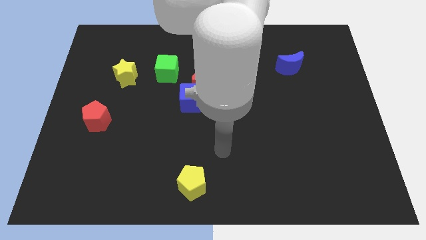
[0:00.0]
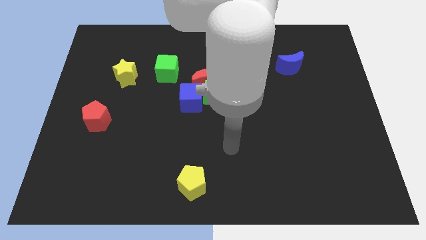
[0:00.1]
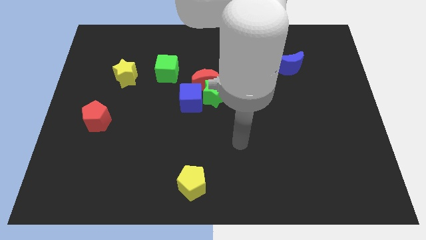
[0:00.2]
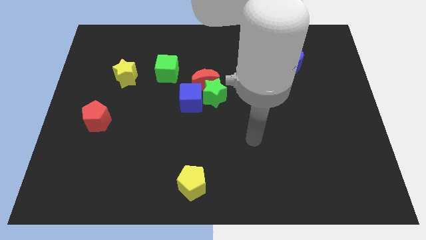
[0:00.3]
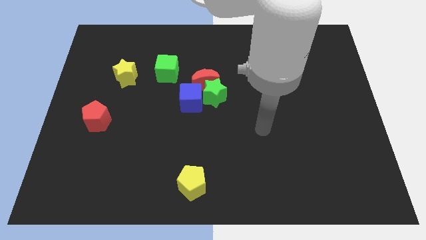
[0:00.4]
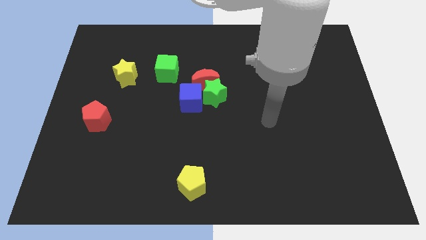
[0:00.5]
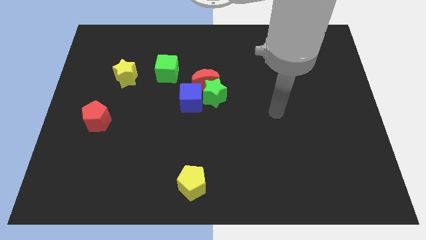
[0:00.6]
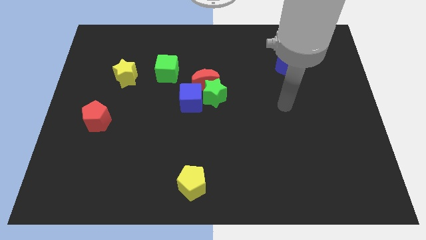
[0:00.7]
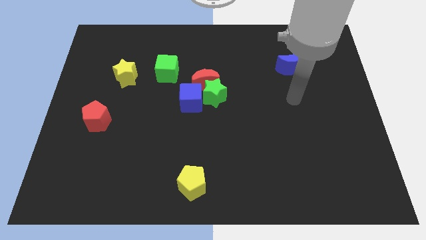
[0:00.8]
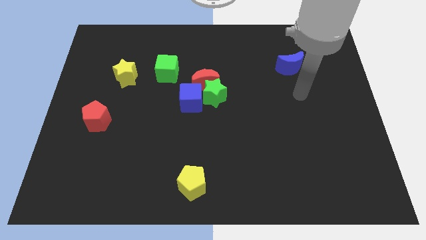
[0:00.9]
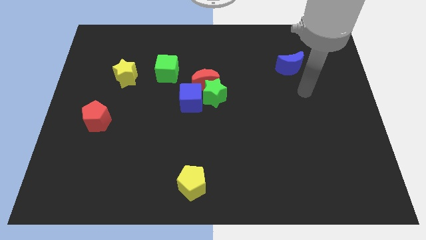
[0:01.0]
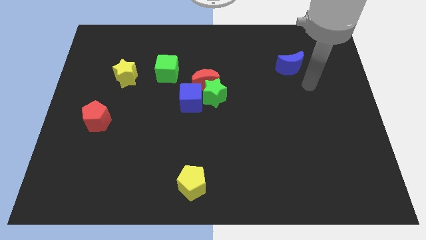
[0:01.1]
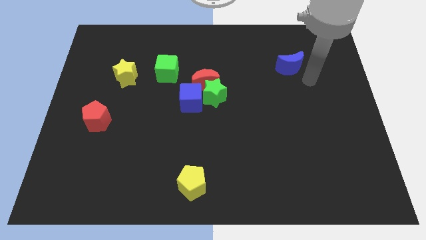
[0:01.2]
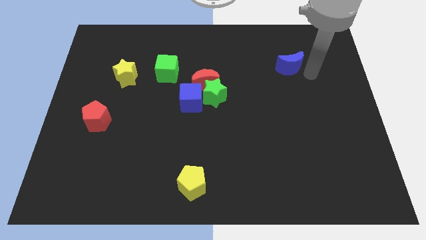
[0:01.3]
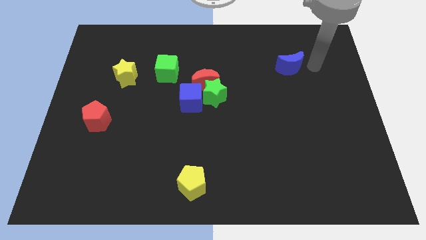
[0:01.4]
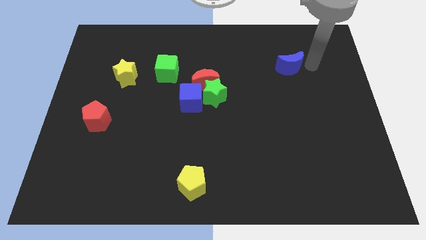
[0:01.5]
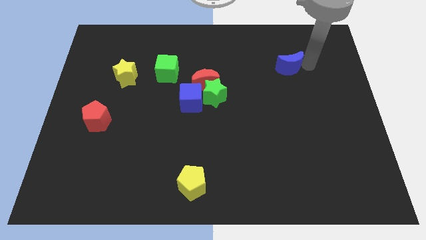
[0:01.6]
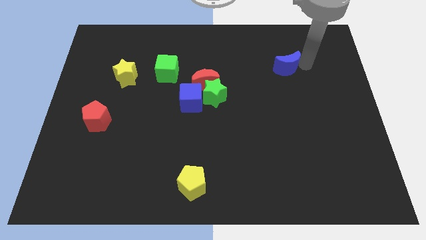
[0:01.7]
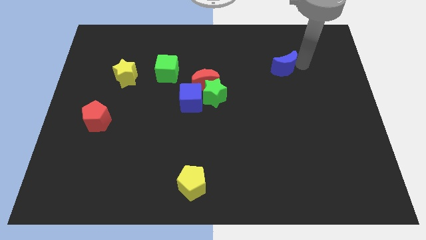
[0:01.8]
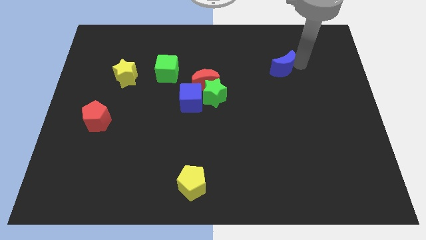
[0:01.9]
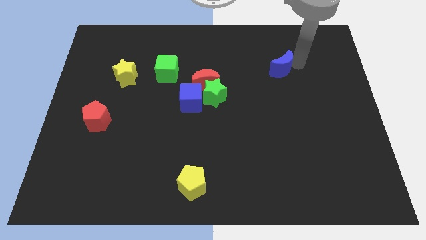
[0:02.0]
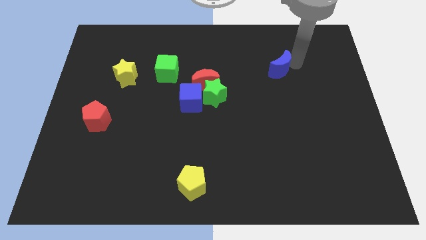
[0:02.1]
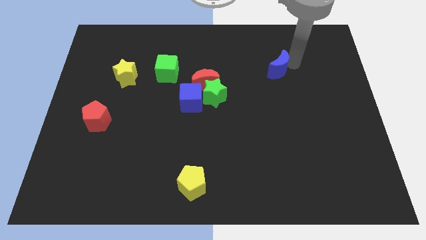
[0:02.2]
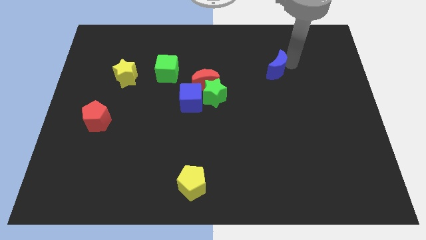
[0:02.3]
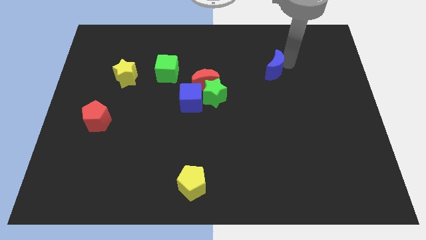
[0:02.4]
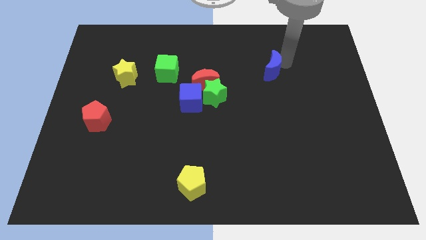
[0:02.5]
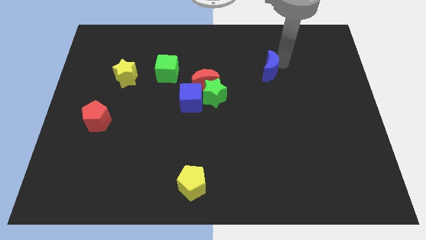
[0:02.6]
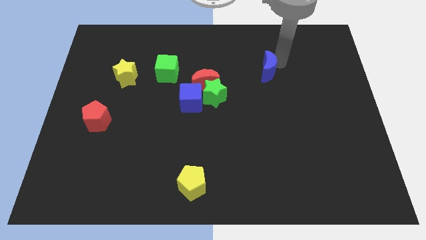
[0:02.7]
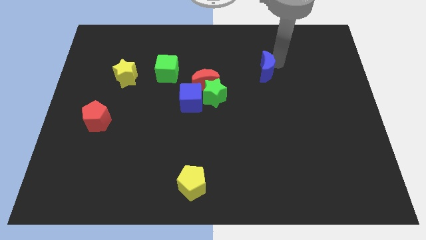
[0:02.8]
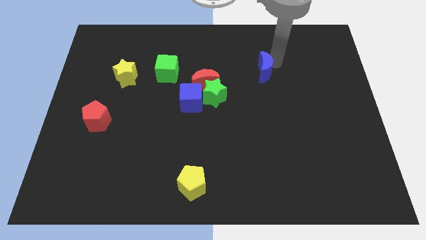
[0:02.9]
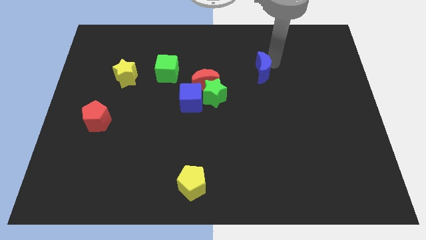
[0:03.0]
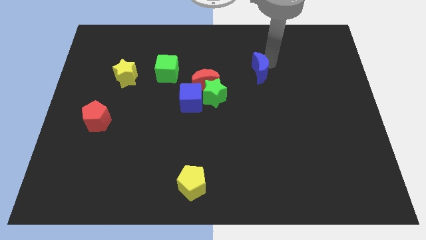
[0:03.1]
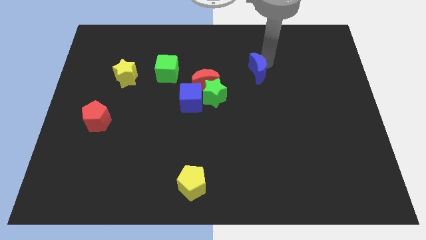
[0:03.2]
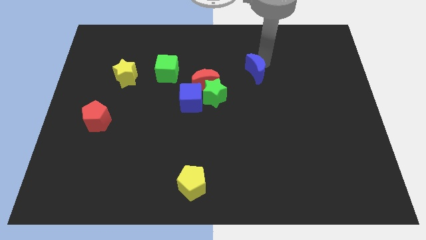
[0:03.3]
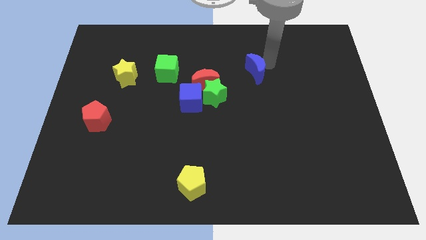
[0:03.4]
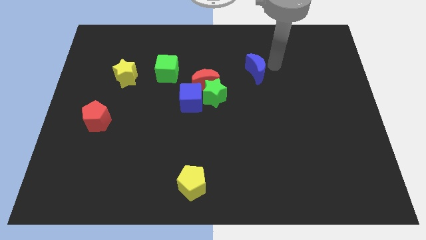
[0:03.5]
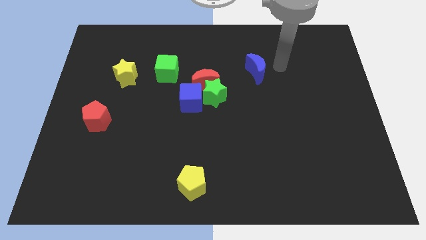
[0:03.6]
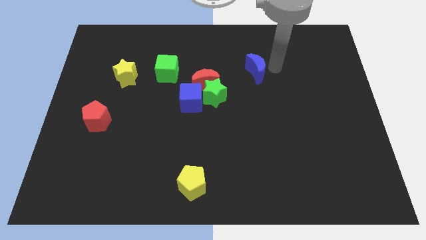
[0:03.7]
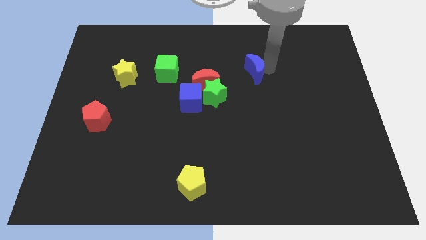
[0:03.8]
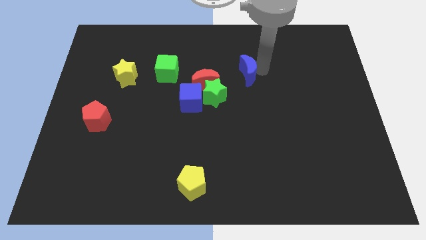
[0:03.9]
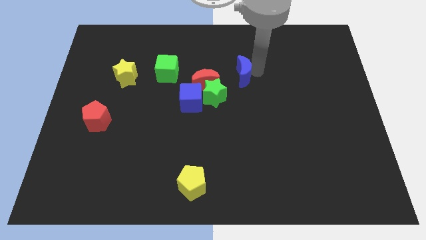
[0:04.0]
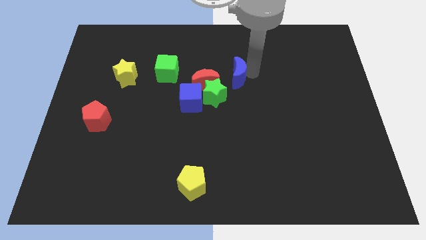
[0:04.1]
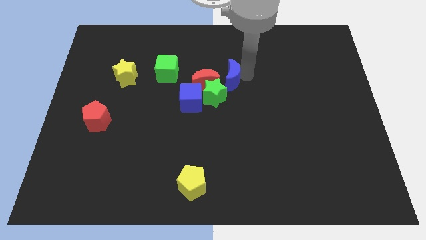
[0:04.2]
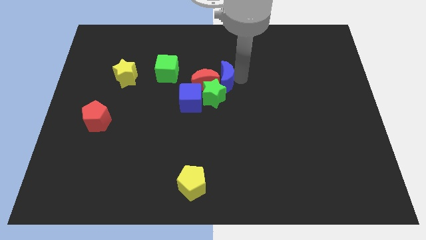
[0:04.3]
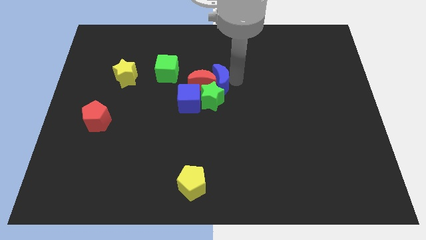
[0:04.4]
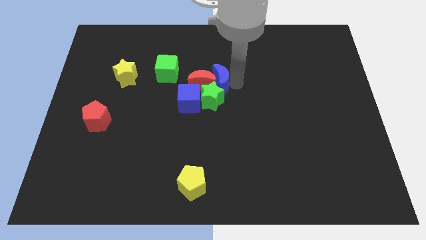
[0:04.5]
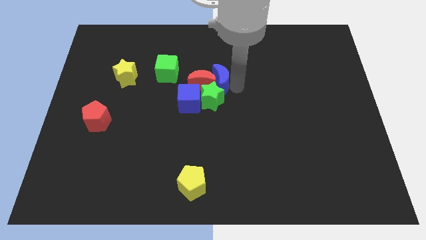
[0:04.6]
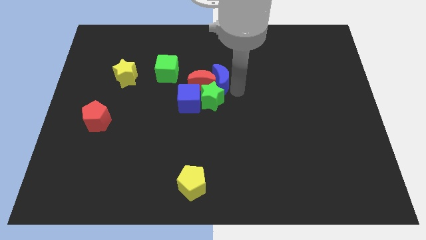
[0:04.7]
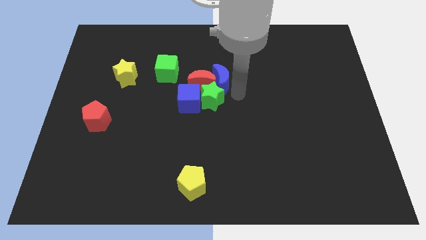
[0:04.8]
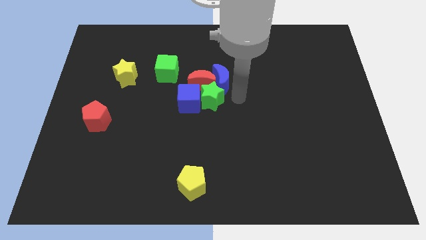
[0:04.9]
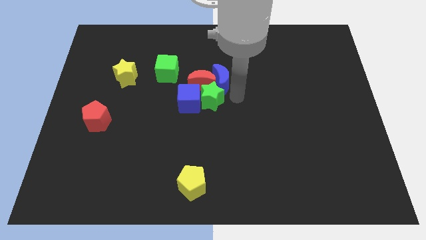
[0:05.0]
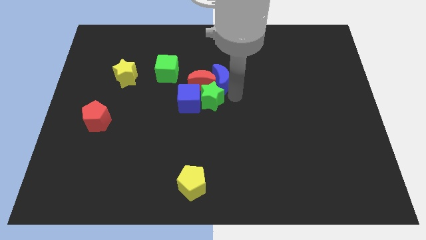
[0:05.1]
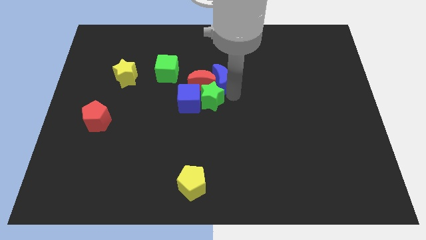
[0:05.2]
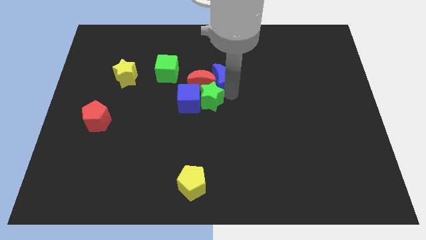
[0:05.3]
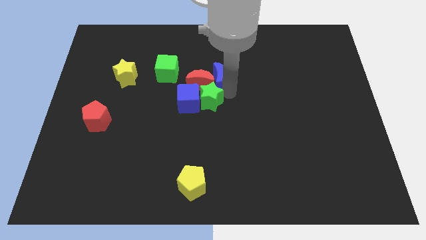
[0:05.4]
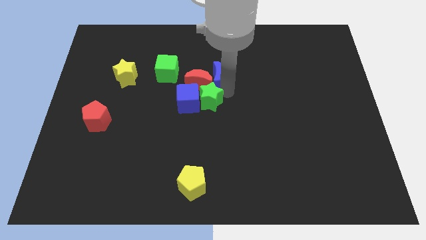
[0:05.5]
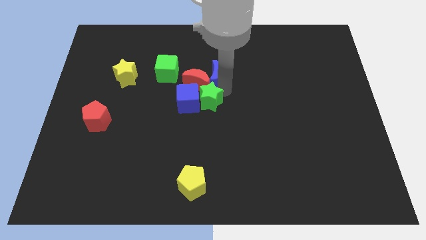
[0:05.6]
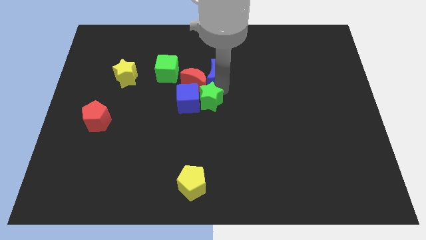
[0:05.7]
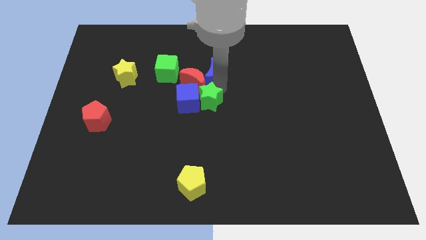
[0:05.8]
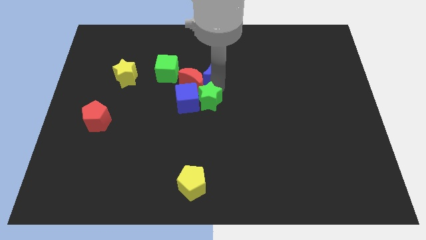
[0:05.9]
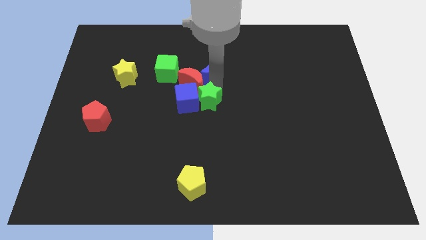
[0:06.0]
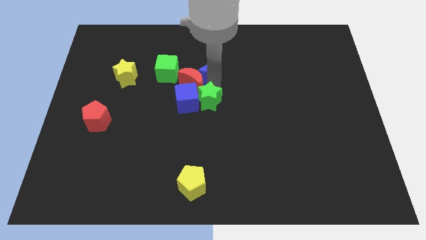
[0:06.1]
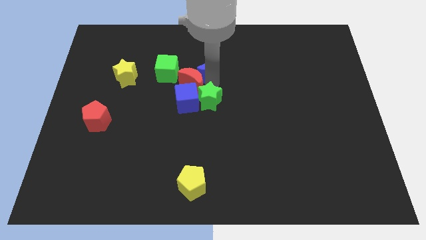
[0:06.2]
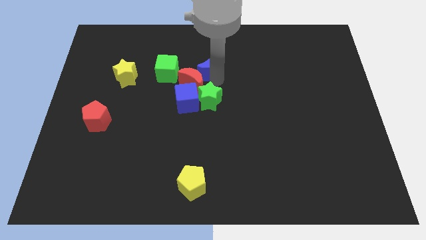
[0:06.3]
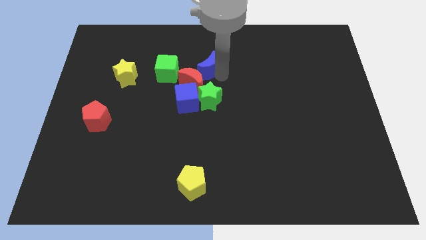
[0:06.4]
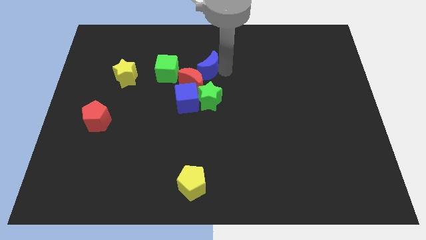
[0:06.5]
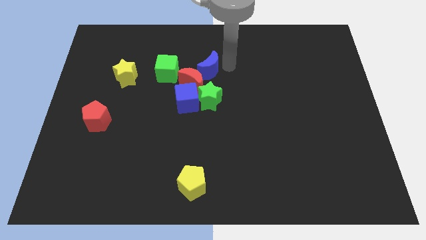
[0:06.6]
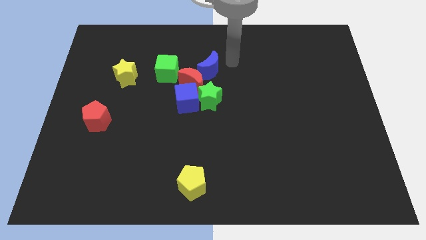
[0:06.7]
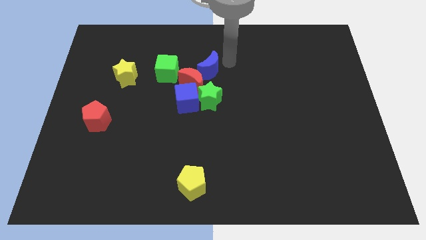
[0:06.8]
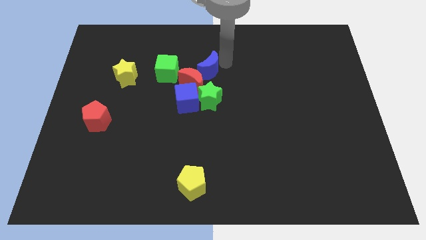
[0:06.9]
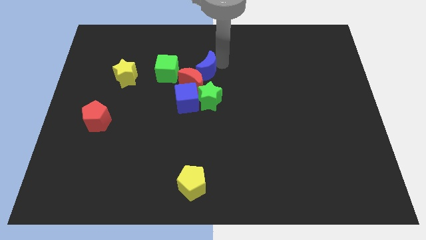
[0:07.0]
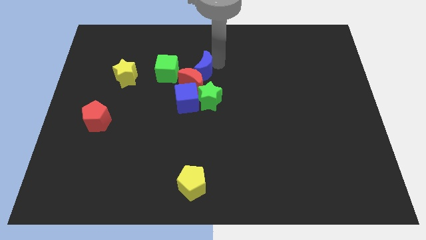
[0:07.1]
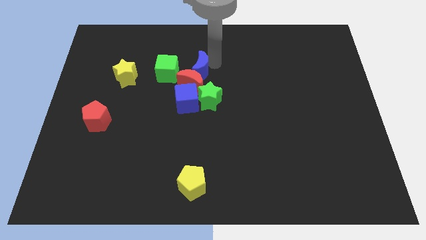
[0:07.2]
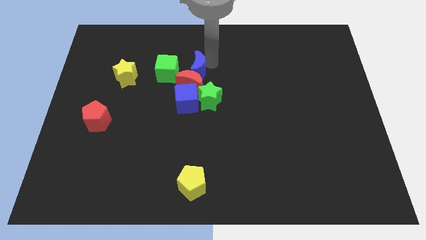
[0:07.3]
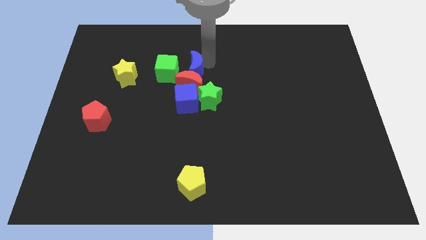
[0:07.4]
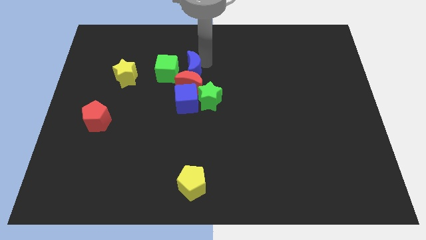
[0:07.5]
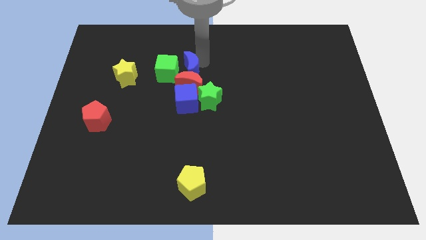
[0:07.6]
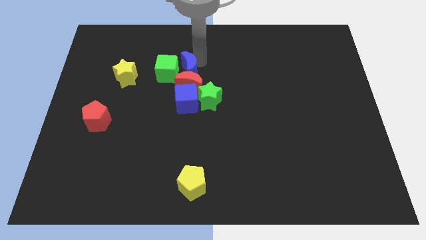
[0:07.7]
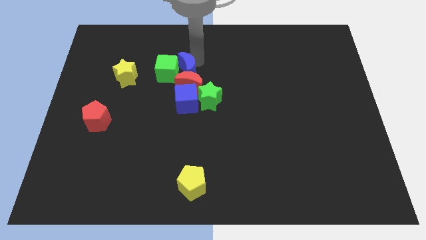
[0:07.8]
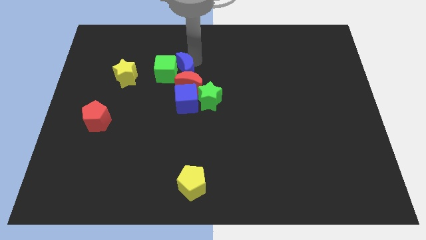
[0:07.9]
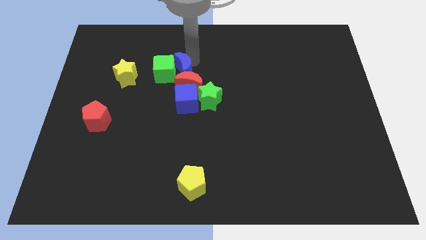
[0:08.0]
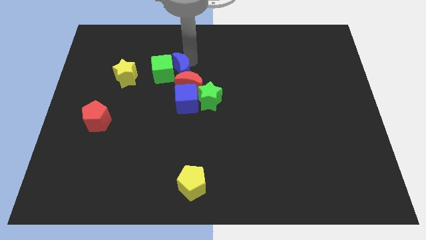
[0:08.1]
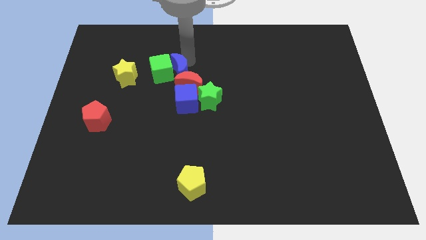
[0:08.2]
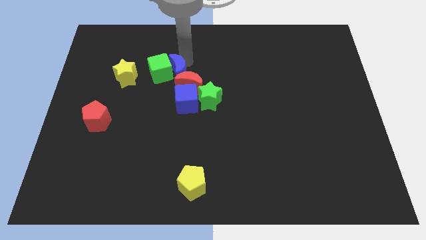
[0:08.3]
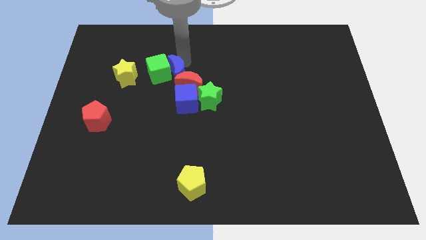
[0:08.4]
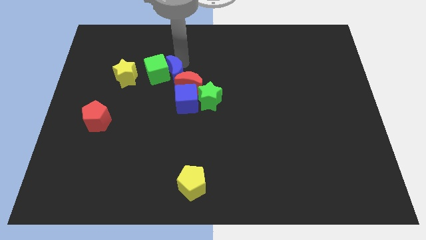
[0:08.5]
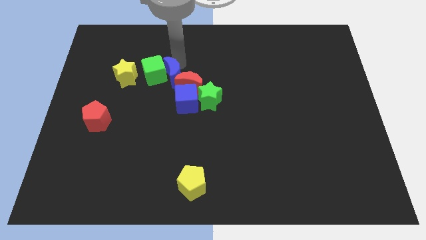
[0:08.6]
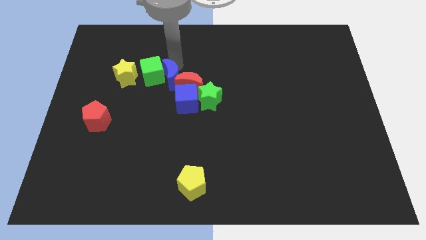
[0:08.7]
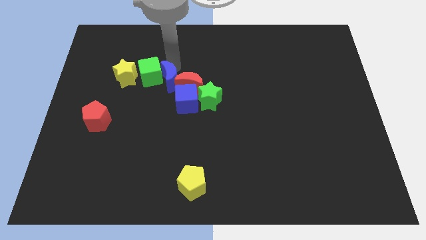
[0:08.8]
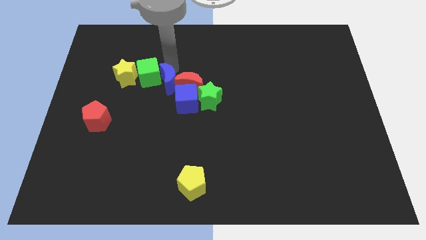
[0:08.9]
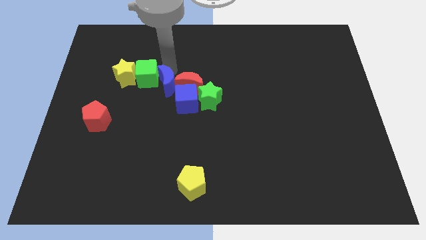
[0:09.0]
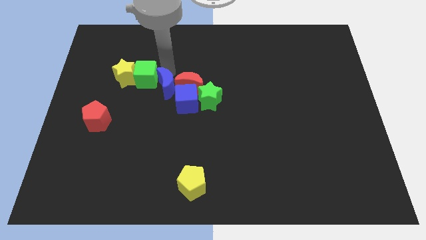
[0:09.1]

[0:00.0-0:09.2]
move the blue moon just left of the green star
